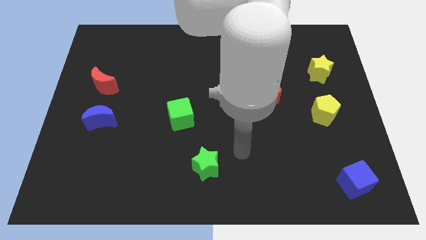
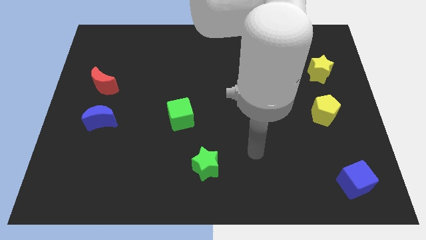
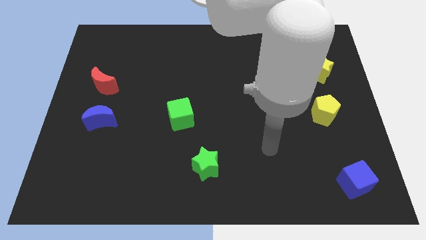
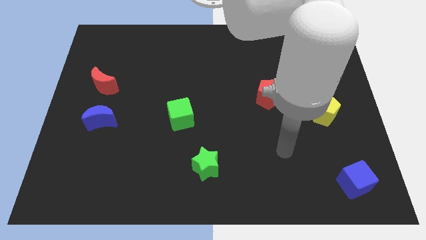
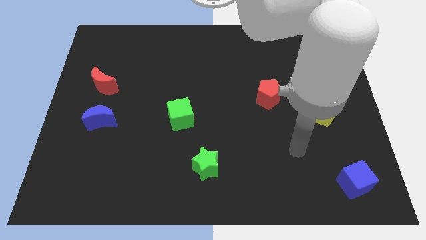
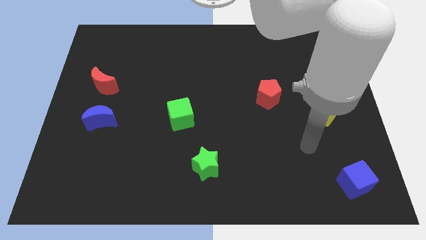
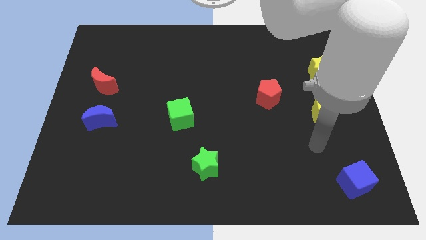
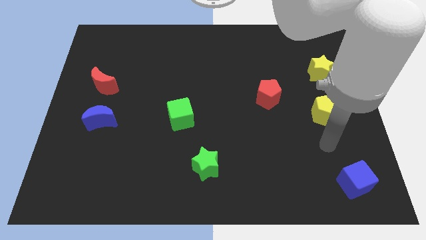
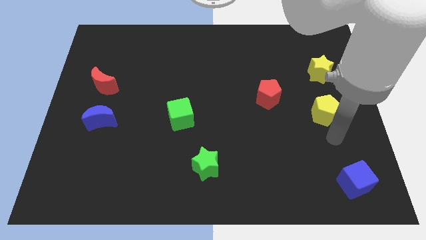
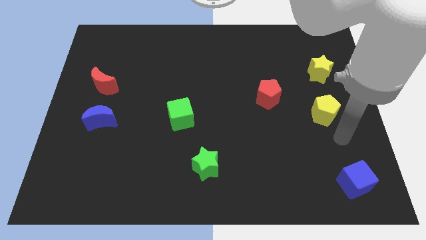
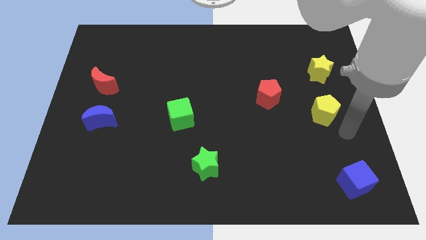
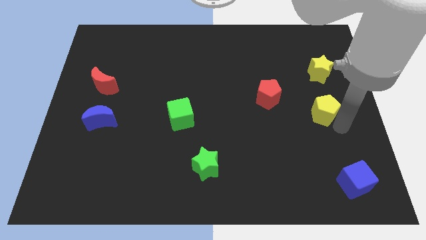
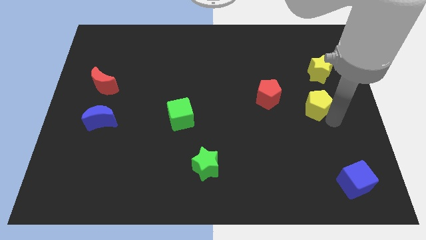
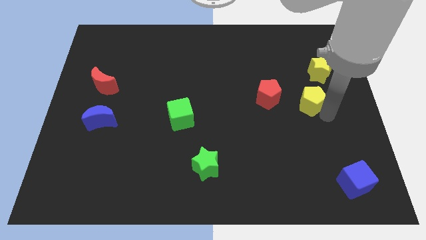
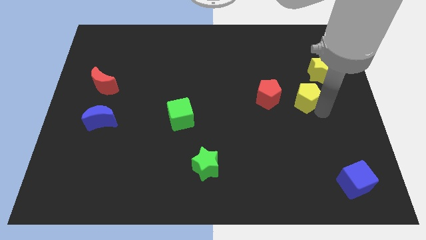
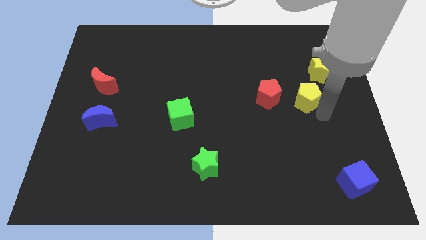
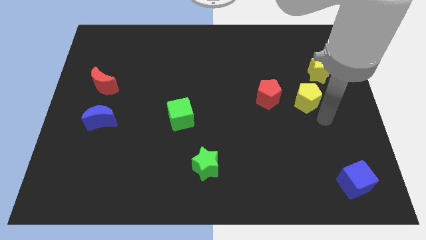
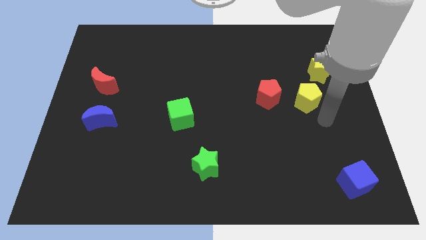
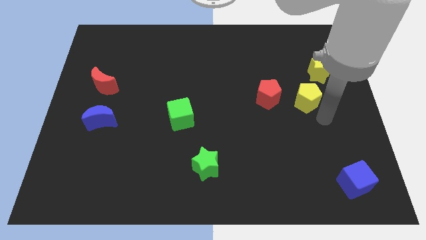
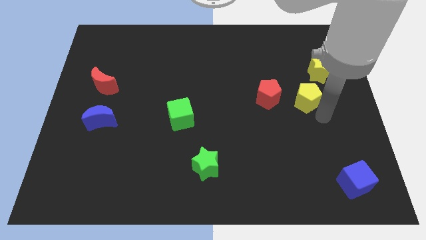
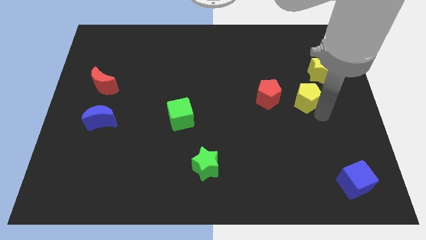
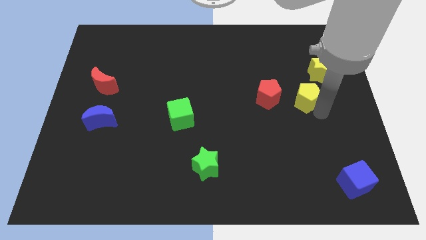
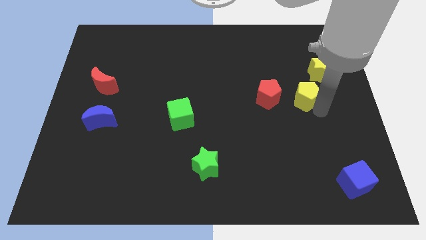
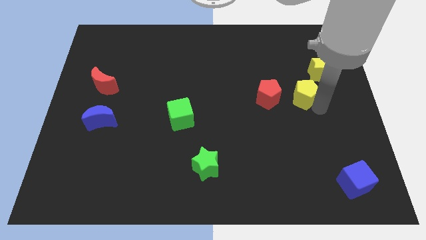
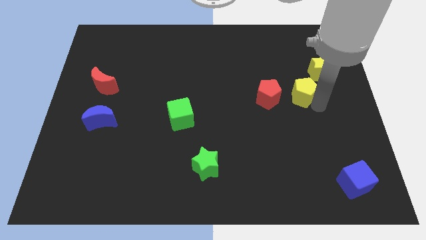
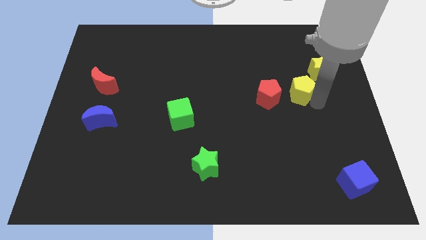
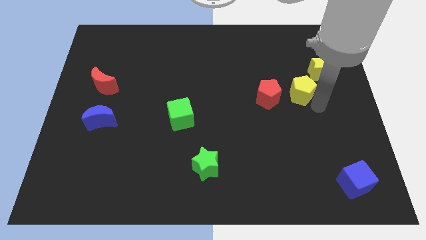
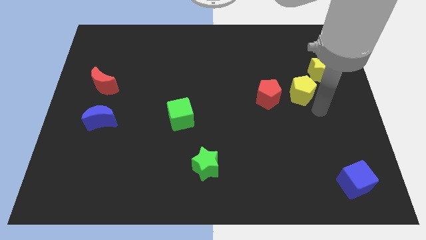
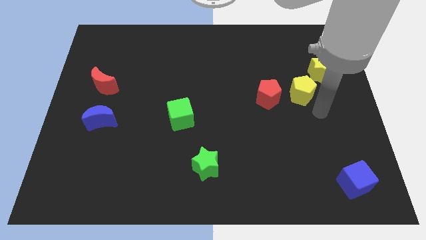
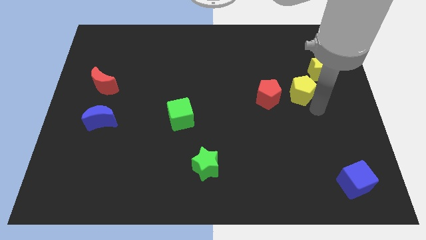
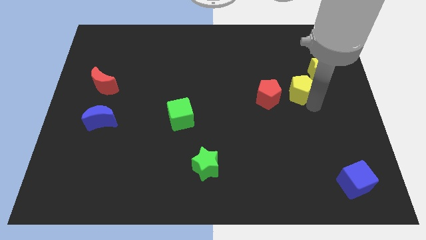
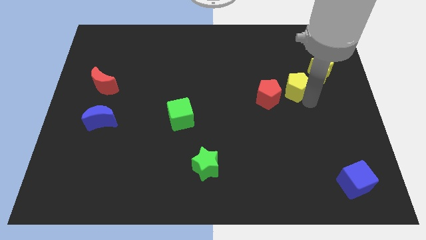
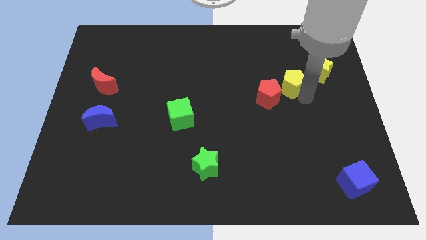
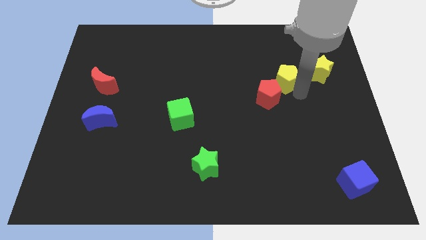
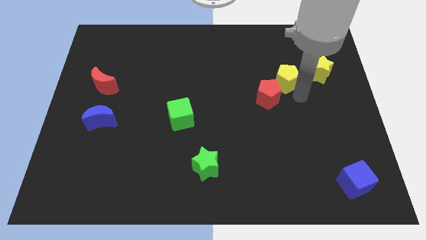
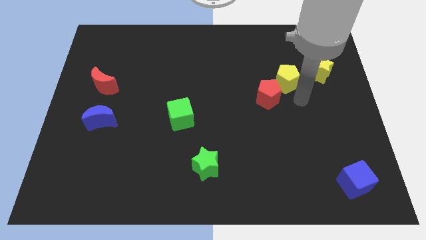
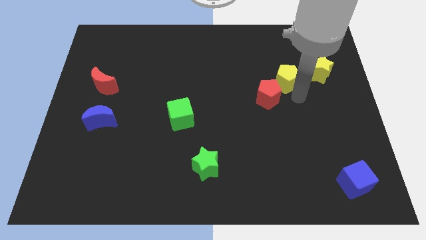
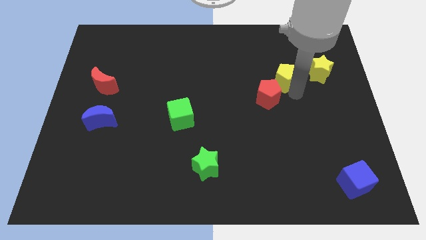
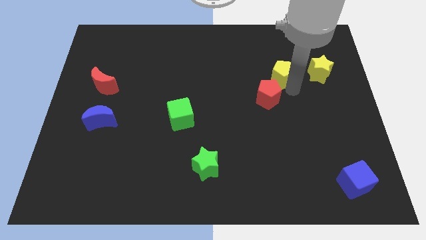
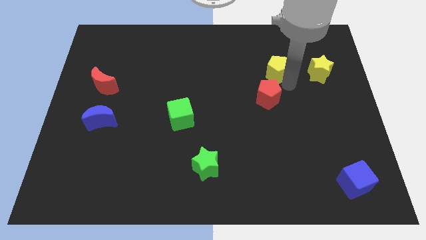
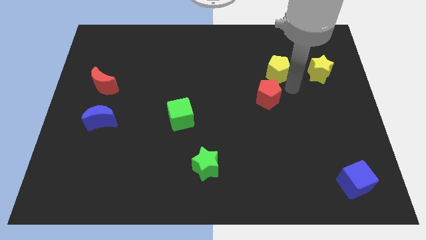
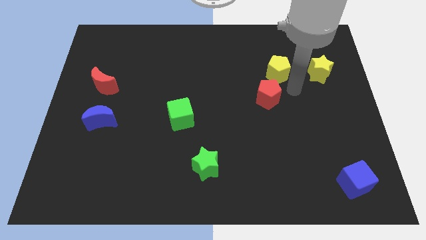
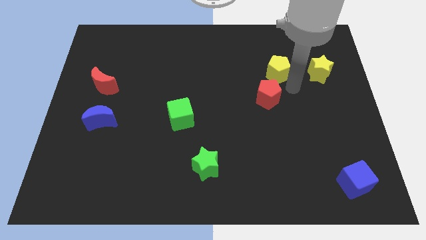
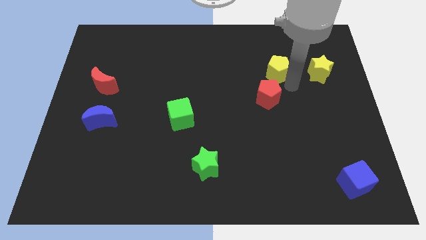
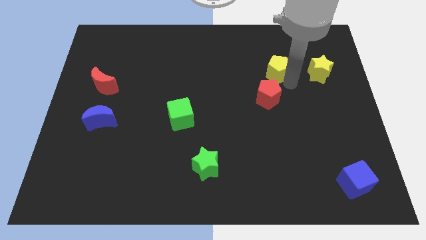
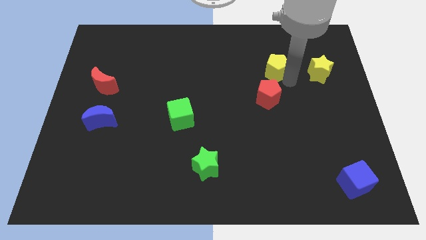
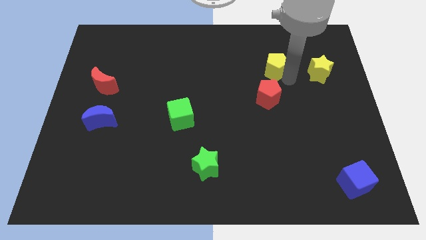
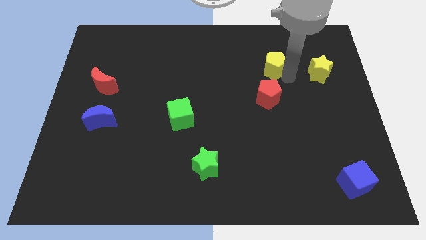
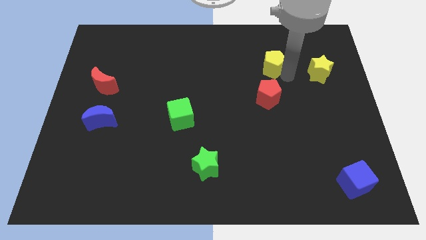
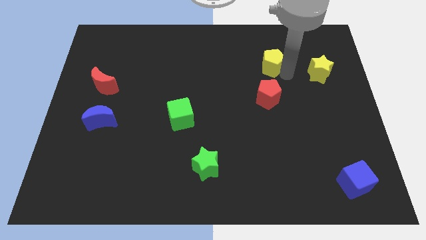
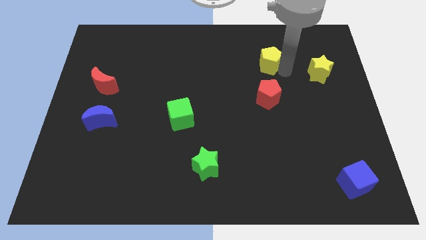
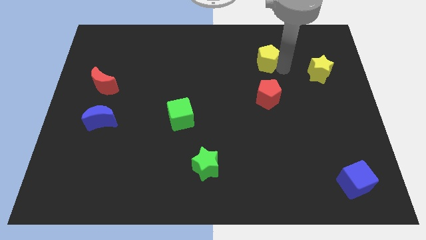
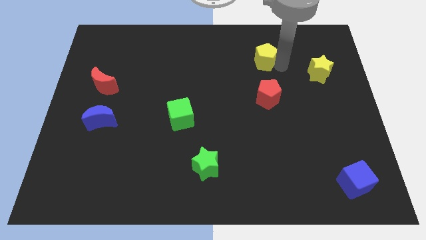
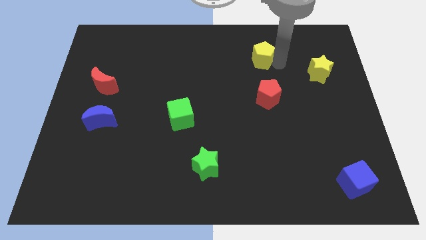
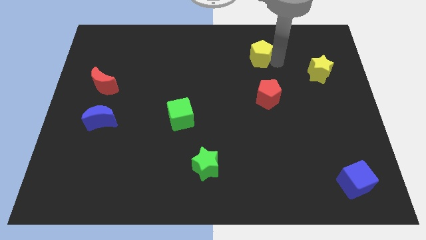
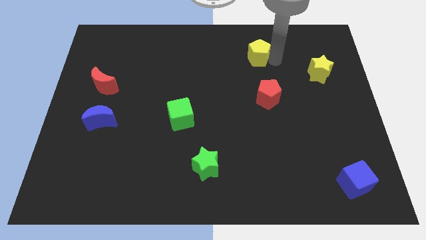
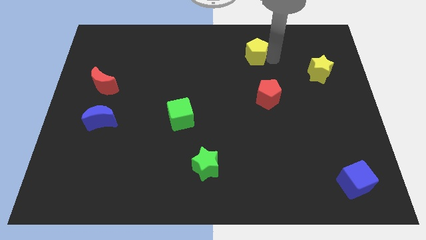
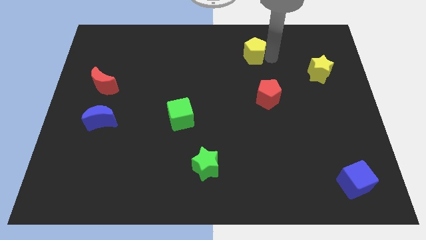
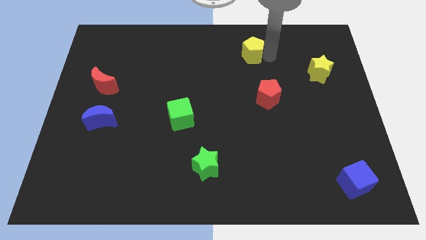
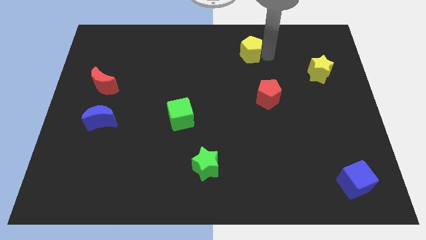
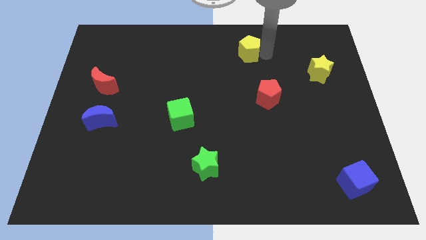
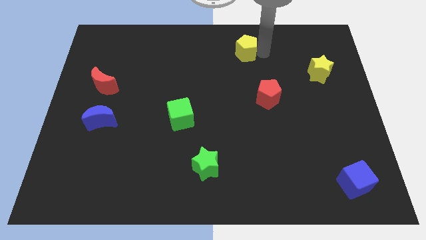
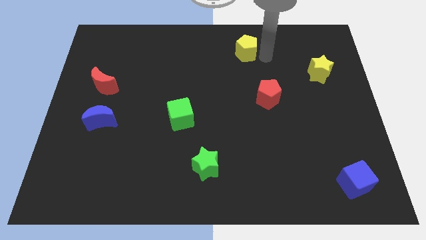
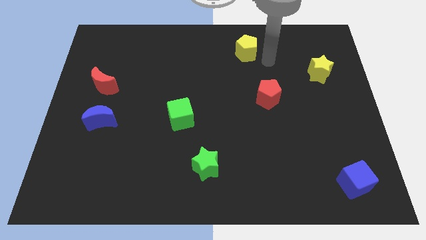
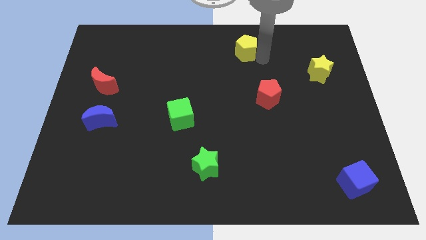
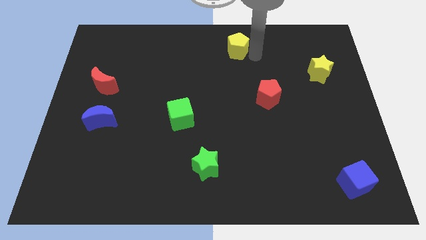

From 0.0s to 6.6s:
move the yellow pentagon to the towards your base
